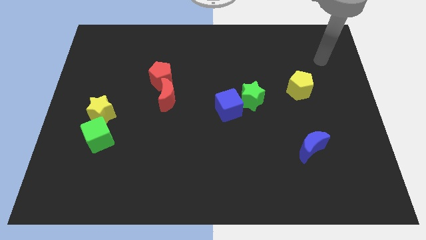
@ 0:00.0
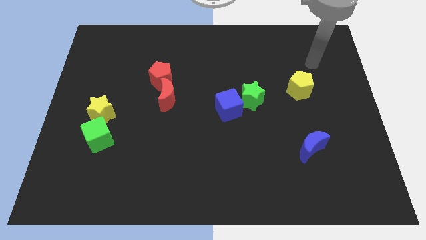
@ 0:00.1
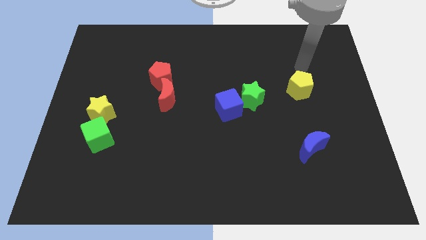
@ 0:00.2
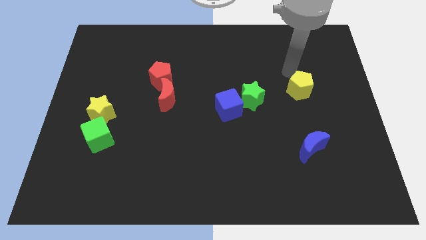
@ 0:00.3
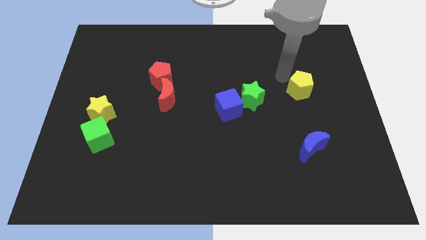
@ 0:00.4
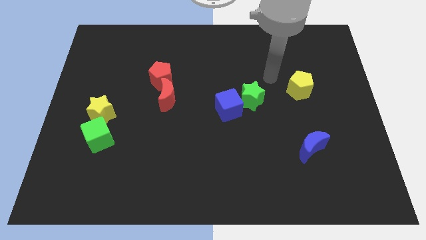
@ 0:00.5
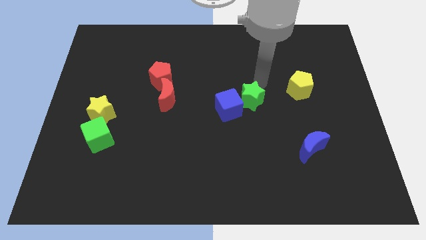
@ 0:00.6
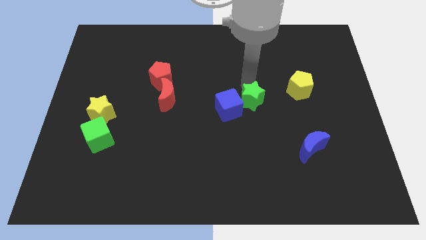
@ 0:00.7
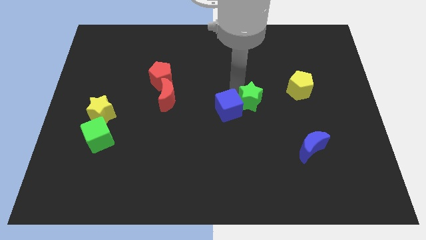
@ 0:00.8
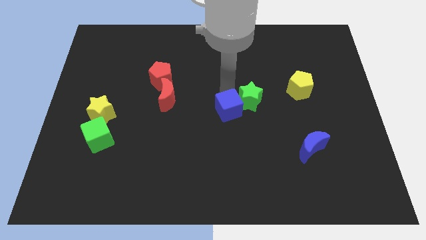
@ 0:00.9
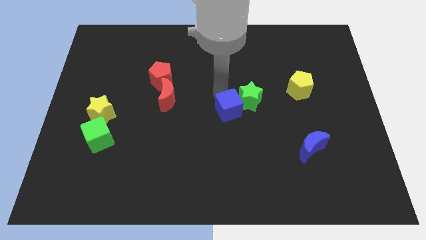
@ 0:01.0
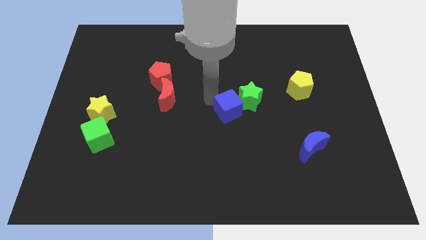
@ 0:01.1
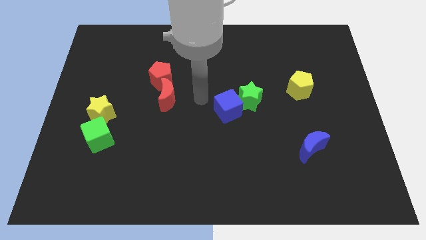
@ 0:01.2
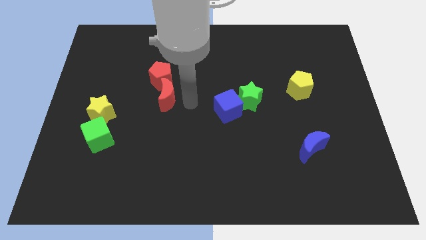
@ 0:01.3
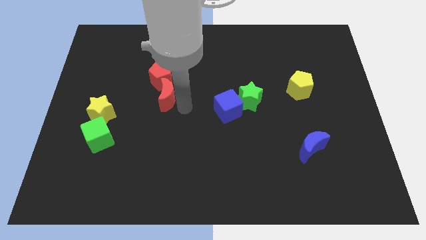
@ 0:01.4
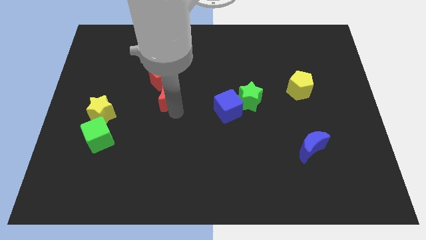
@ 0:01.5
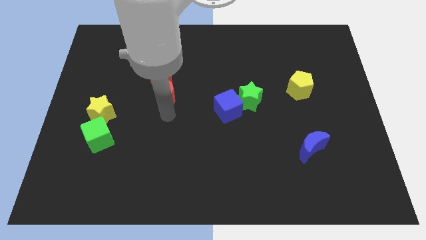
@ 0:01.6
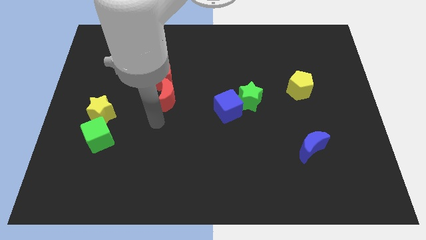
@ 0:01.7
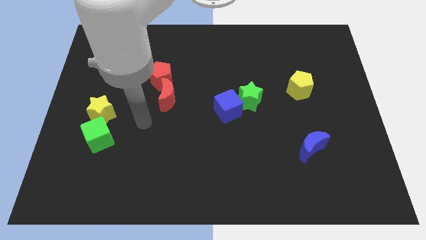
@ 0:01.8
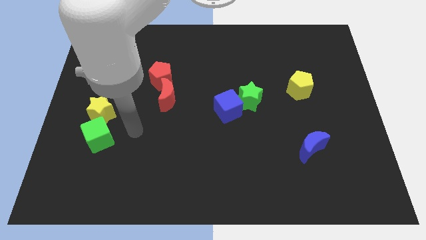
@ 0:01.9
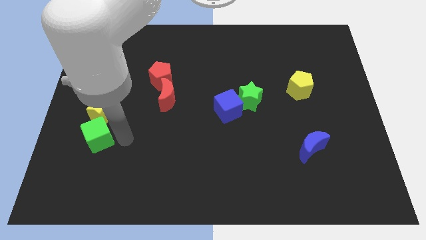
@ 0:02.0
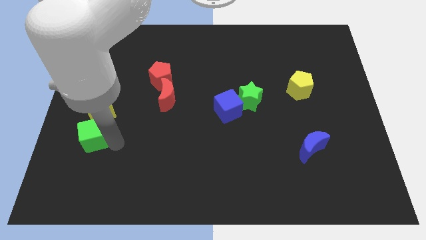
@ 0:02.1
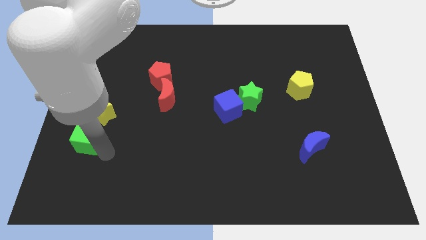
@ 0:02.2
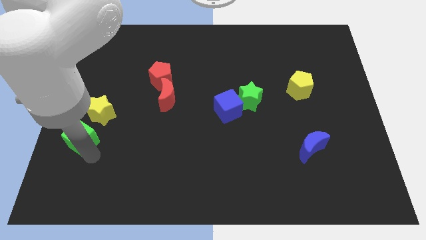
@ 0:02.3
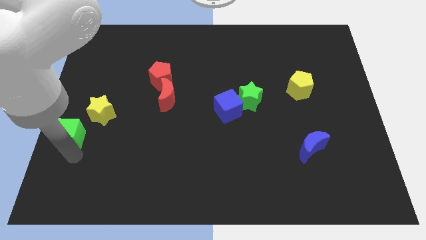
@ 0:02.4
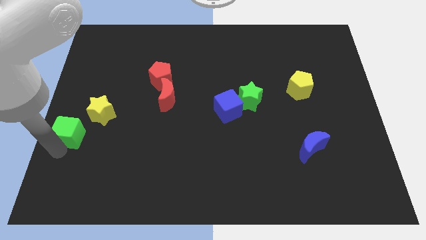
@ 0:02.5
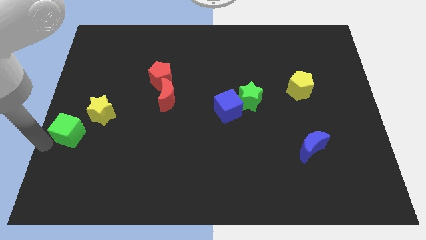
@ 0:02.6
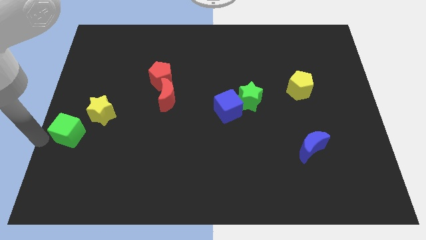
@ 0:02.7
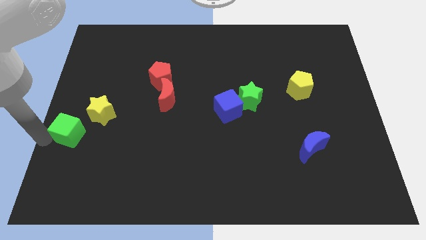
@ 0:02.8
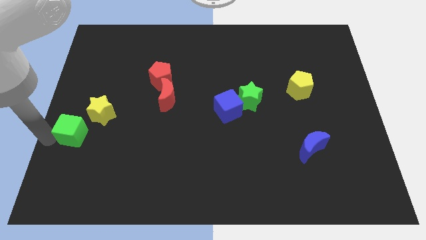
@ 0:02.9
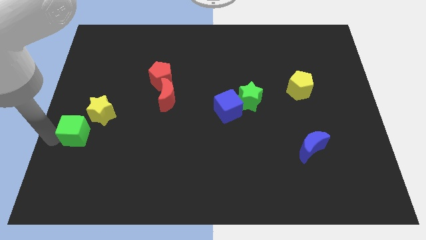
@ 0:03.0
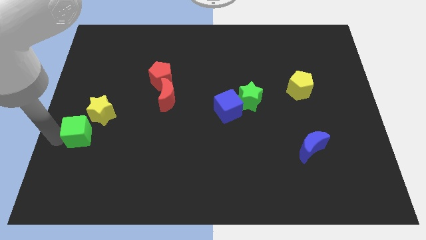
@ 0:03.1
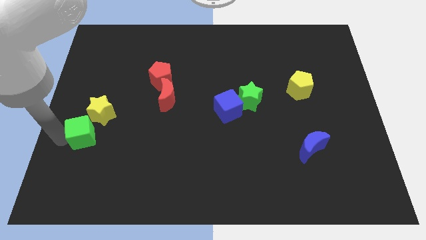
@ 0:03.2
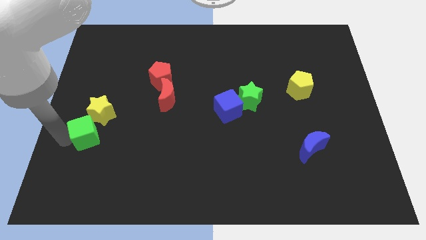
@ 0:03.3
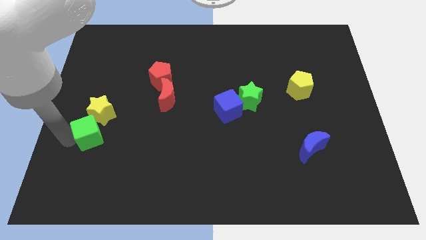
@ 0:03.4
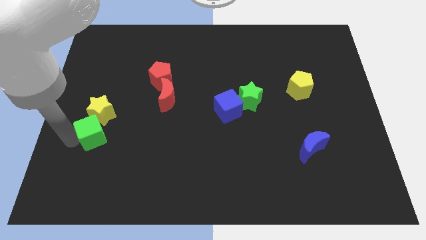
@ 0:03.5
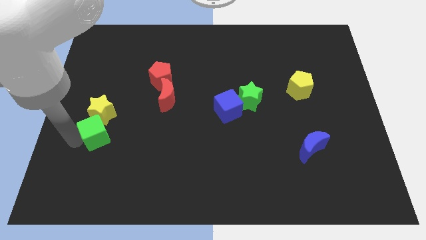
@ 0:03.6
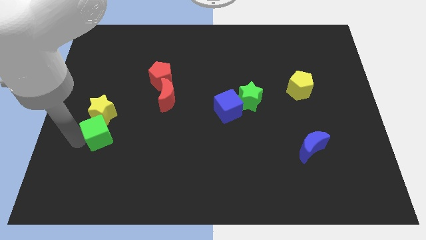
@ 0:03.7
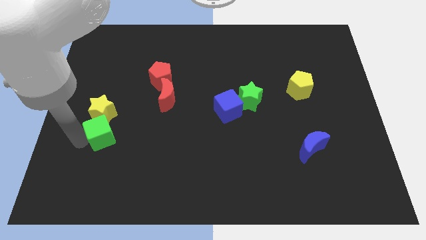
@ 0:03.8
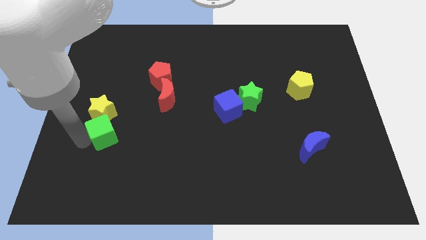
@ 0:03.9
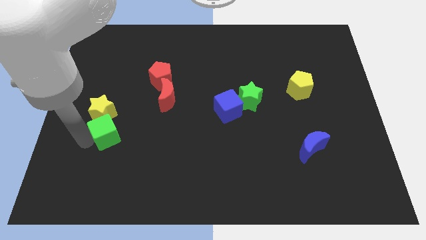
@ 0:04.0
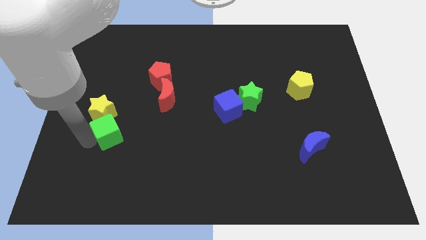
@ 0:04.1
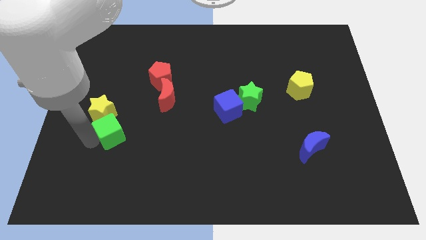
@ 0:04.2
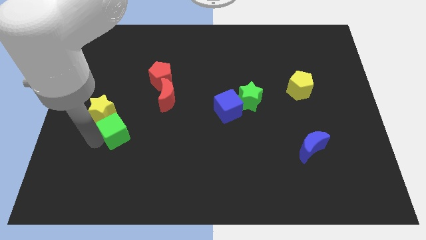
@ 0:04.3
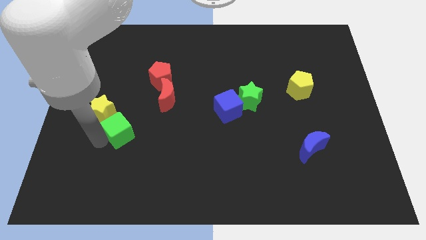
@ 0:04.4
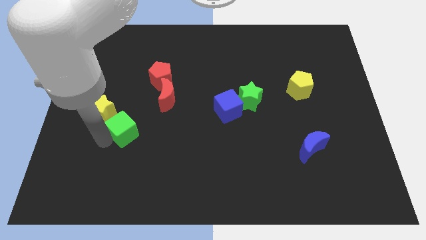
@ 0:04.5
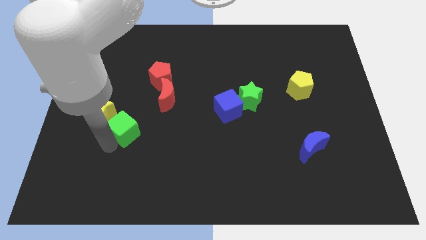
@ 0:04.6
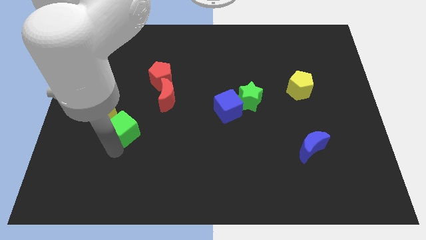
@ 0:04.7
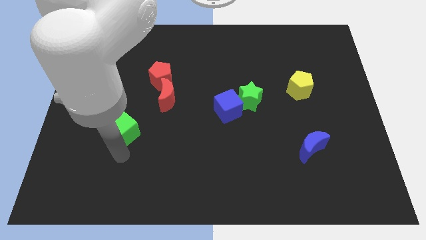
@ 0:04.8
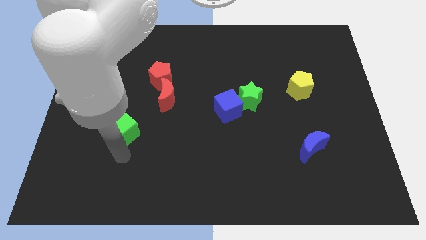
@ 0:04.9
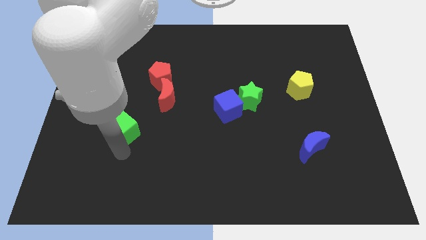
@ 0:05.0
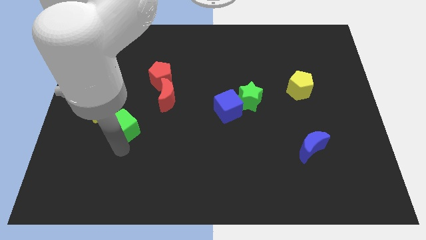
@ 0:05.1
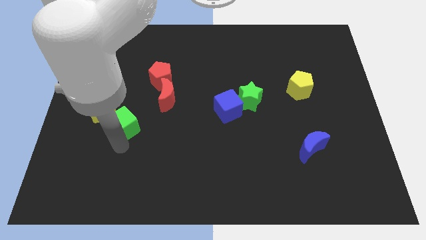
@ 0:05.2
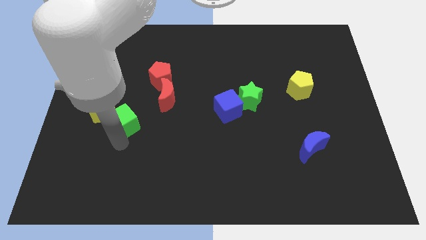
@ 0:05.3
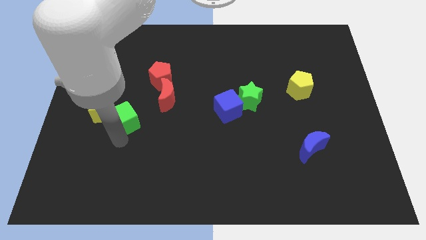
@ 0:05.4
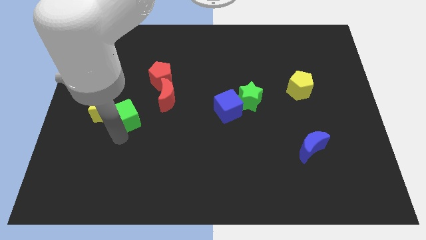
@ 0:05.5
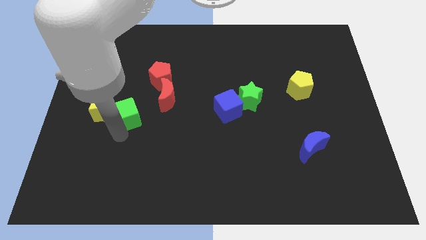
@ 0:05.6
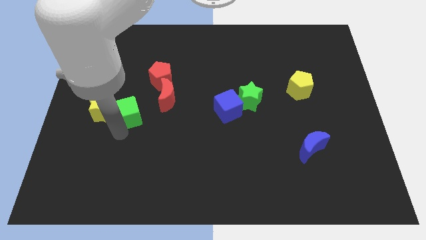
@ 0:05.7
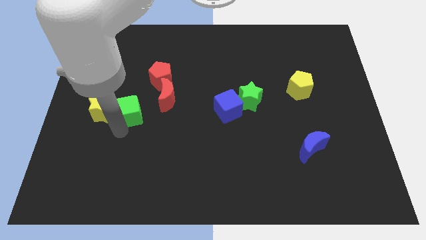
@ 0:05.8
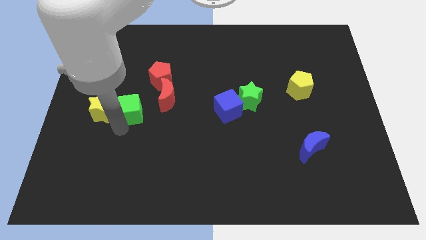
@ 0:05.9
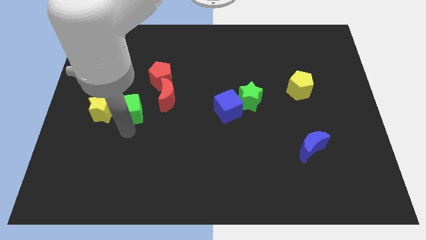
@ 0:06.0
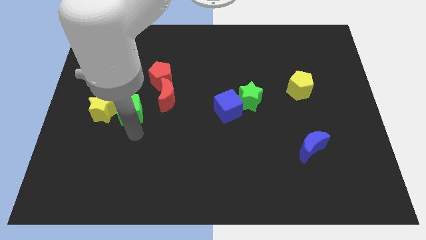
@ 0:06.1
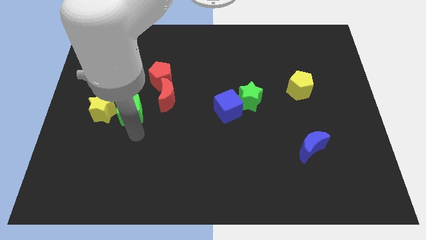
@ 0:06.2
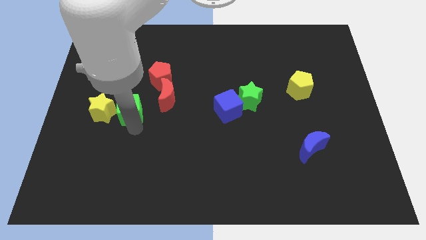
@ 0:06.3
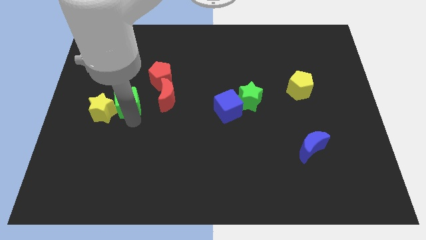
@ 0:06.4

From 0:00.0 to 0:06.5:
move the green cube up slightly

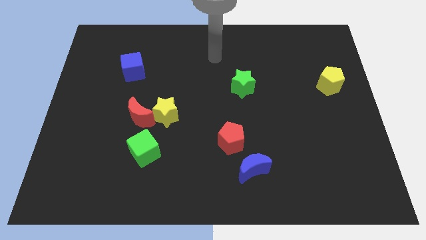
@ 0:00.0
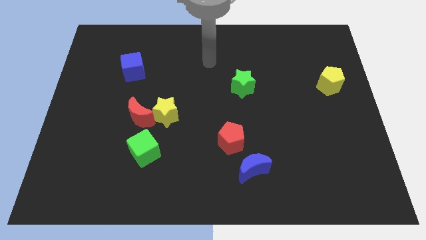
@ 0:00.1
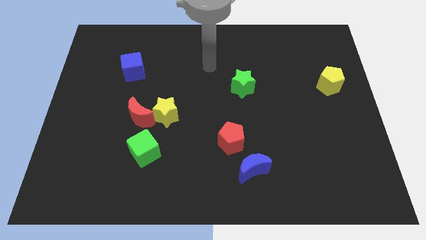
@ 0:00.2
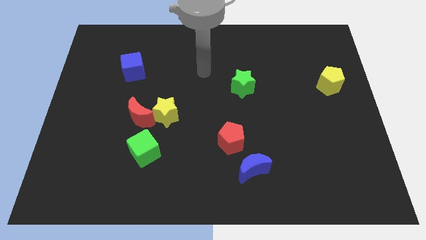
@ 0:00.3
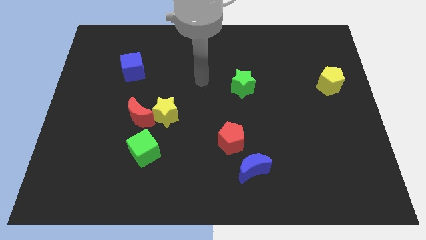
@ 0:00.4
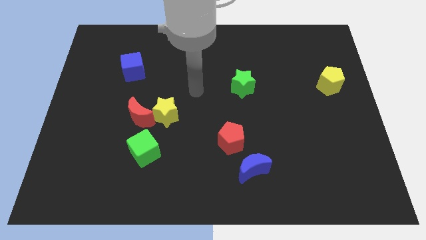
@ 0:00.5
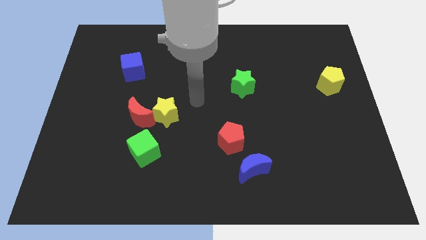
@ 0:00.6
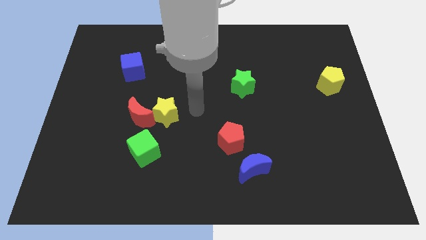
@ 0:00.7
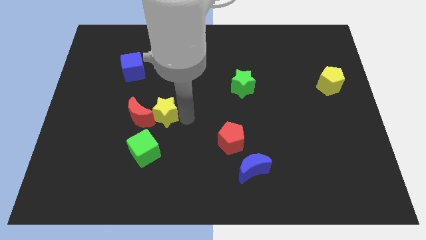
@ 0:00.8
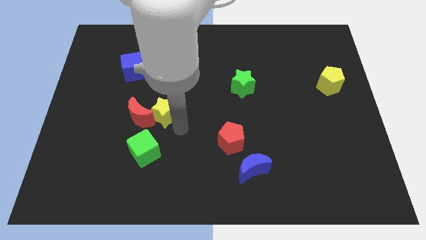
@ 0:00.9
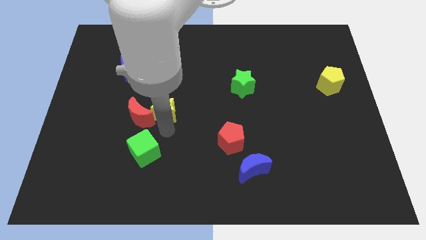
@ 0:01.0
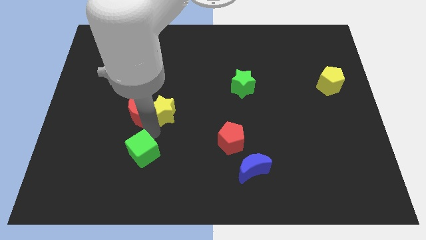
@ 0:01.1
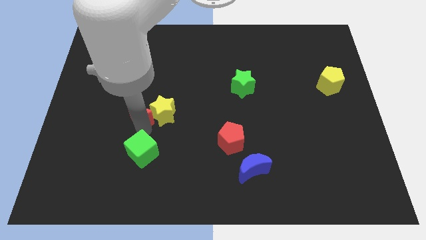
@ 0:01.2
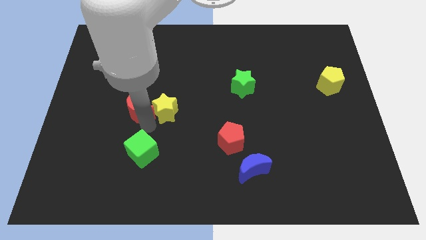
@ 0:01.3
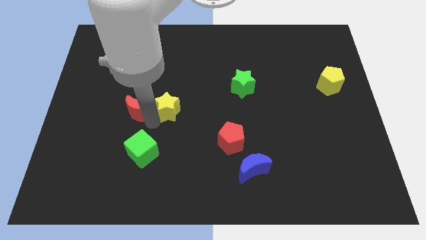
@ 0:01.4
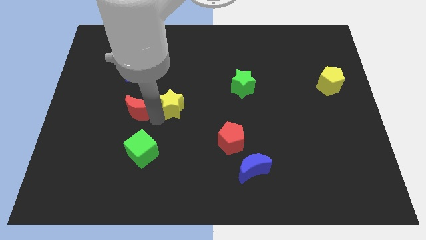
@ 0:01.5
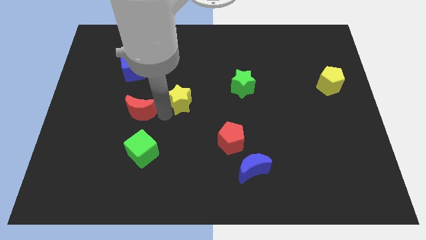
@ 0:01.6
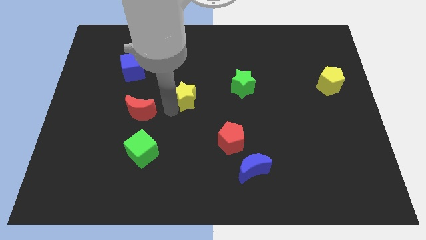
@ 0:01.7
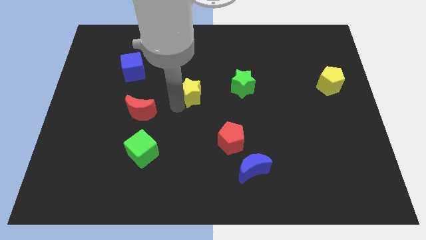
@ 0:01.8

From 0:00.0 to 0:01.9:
slightly slide the yellow star up and to the right
